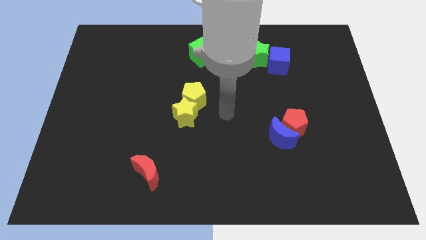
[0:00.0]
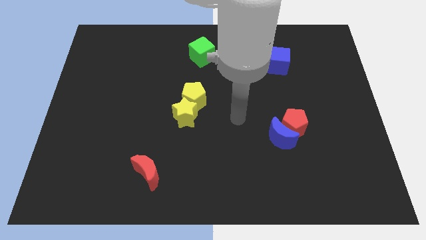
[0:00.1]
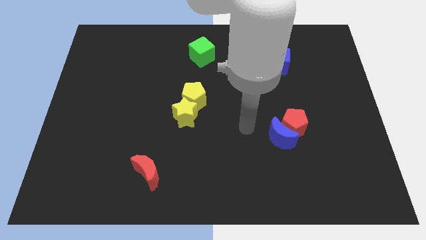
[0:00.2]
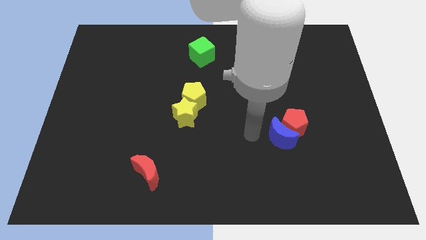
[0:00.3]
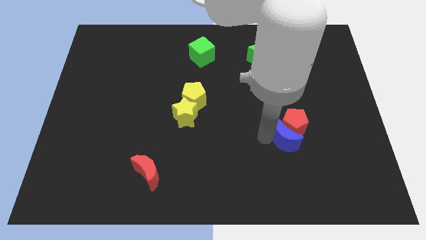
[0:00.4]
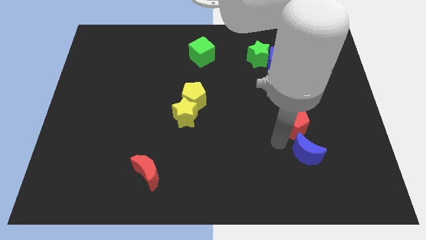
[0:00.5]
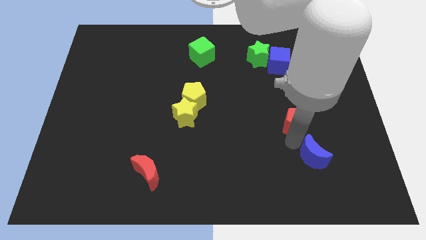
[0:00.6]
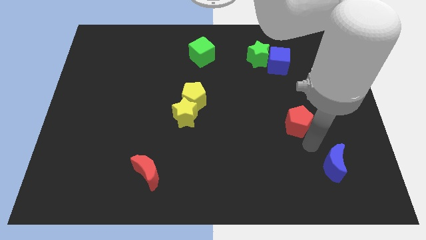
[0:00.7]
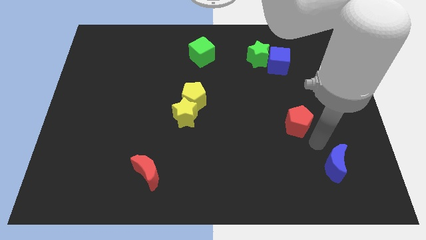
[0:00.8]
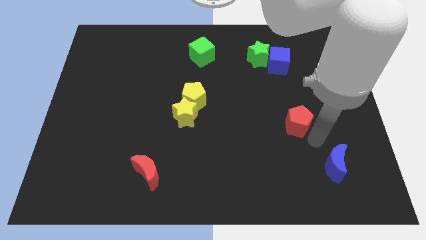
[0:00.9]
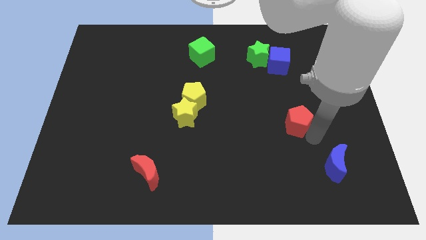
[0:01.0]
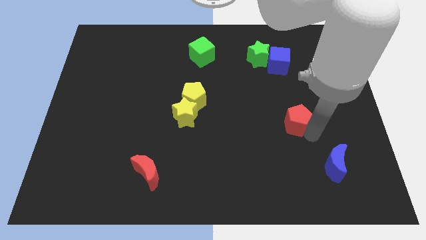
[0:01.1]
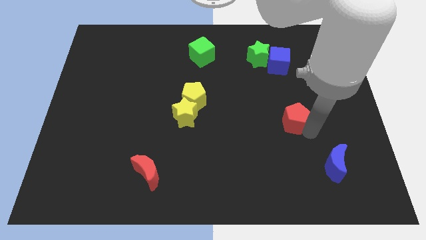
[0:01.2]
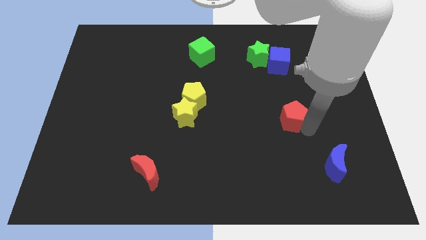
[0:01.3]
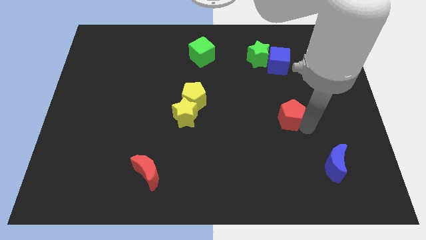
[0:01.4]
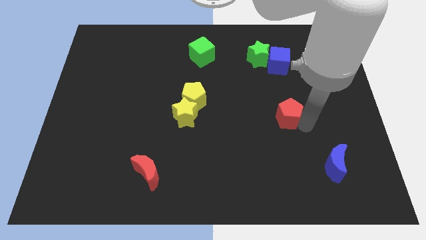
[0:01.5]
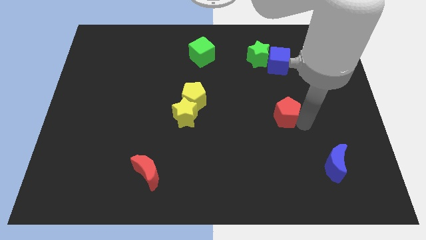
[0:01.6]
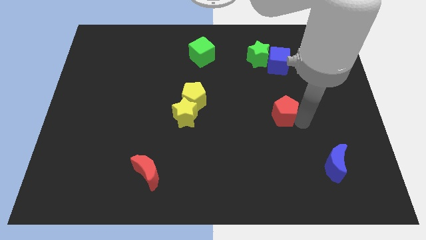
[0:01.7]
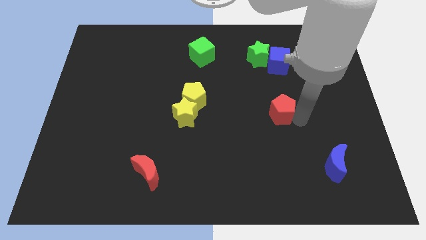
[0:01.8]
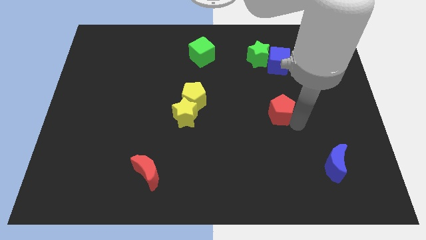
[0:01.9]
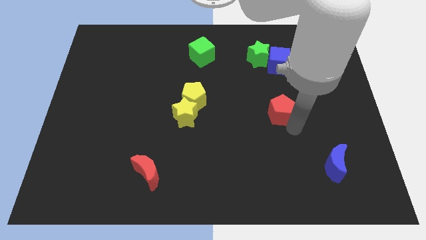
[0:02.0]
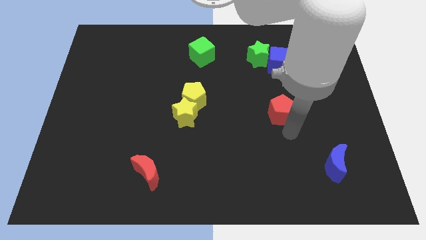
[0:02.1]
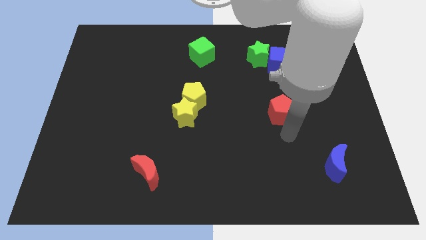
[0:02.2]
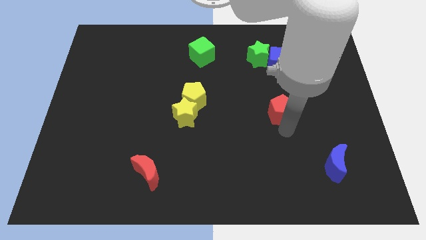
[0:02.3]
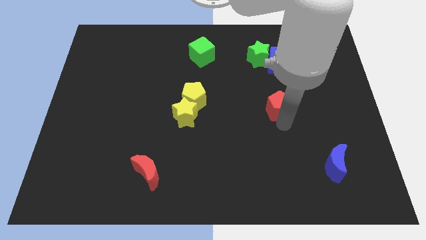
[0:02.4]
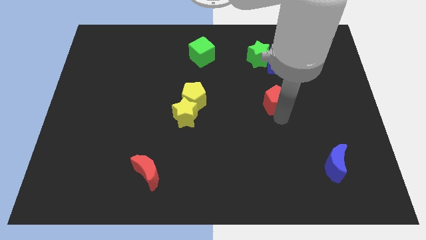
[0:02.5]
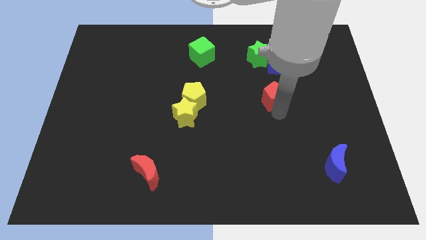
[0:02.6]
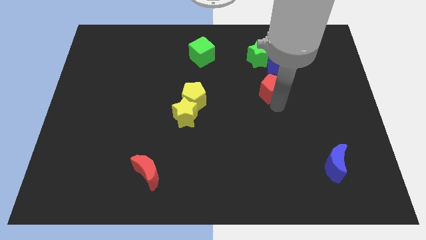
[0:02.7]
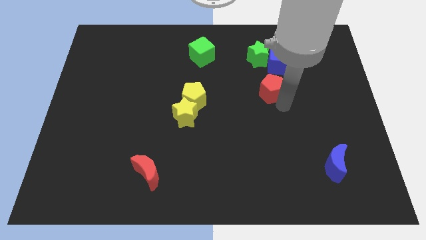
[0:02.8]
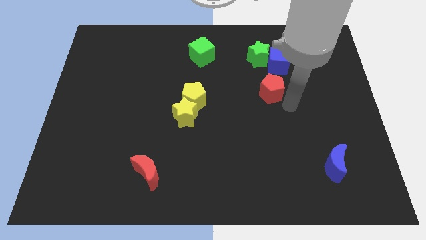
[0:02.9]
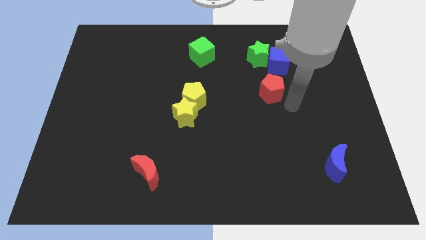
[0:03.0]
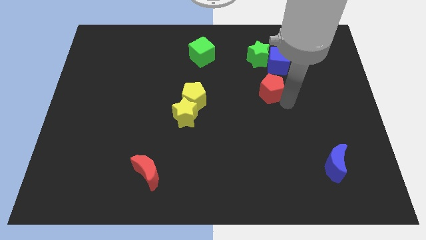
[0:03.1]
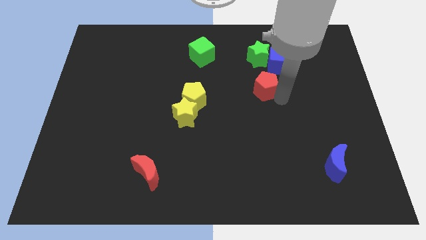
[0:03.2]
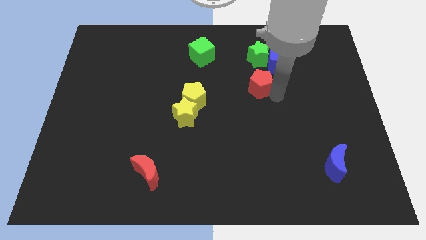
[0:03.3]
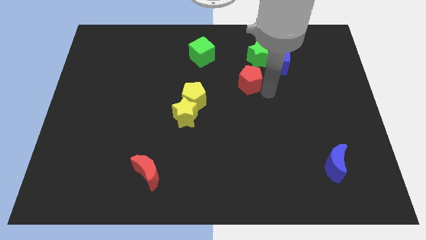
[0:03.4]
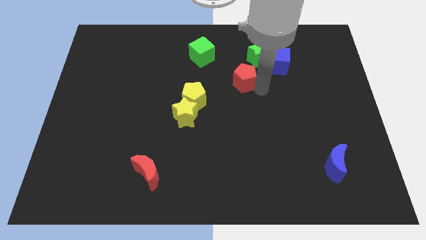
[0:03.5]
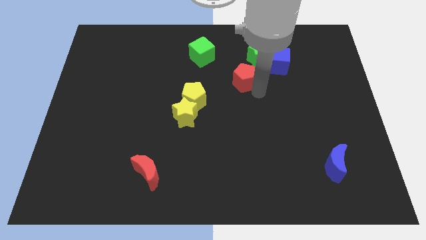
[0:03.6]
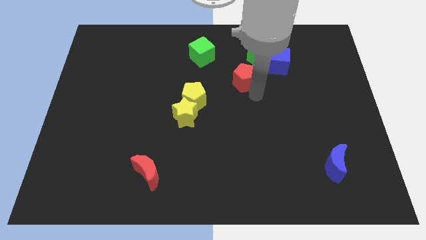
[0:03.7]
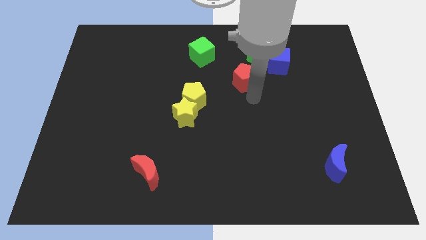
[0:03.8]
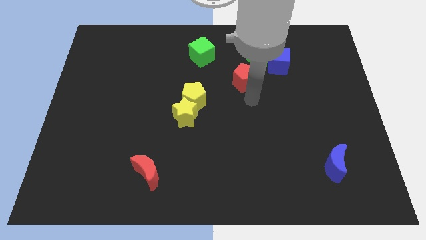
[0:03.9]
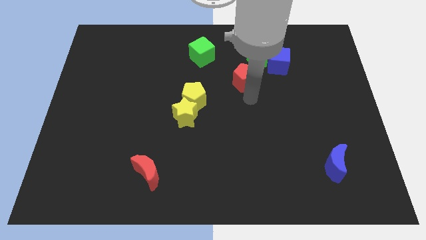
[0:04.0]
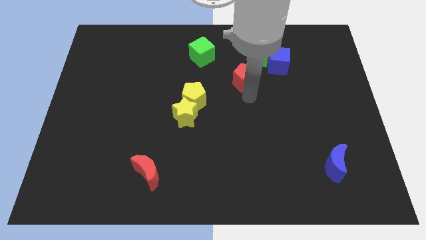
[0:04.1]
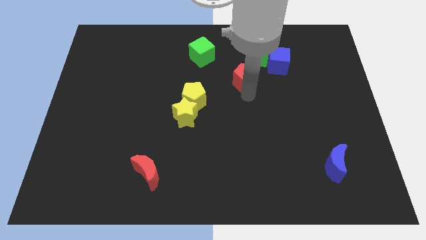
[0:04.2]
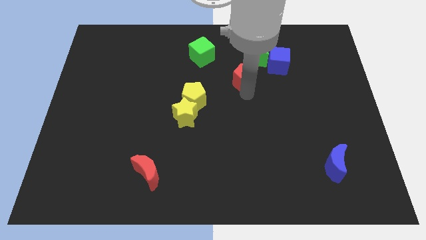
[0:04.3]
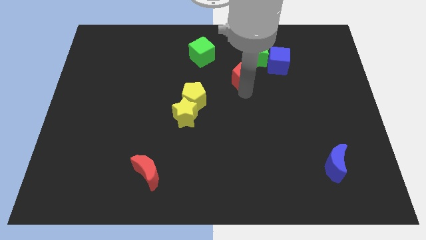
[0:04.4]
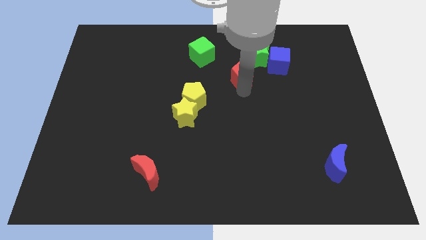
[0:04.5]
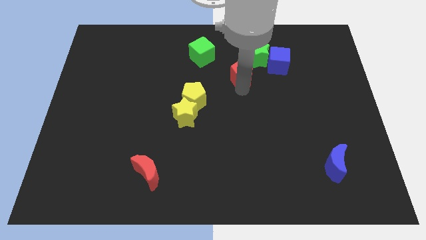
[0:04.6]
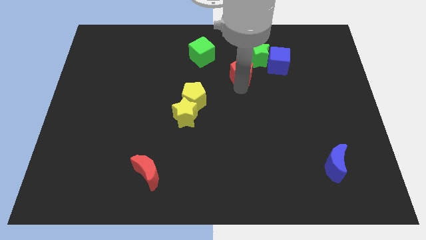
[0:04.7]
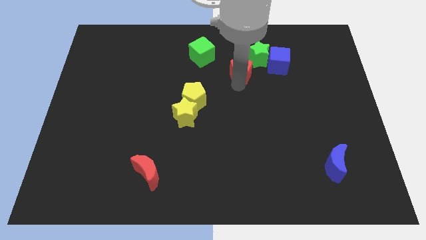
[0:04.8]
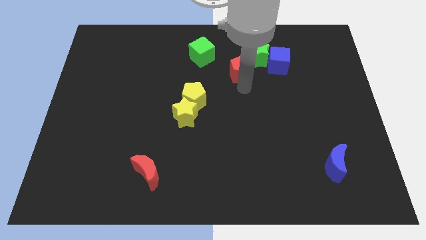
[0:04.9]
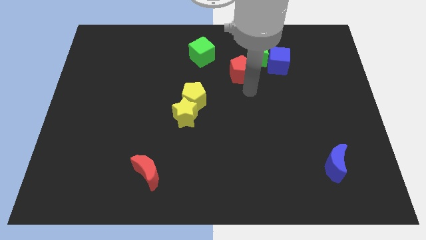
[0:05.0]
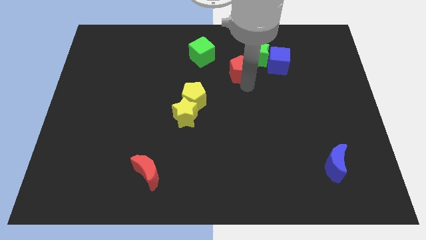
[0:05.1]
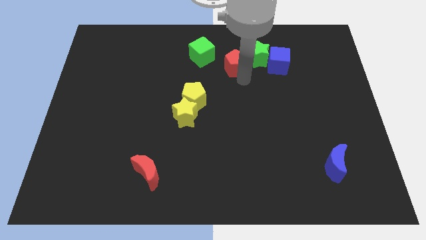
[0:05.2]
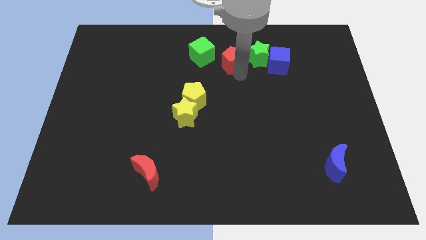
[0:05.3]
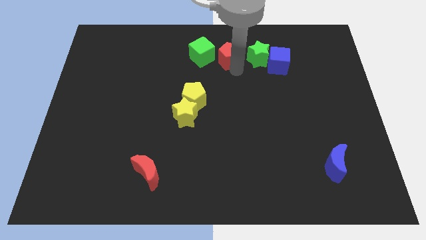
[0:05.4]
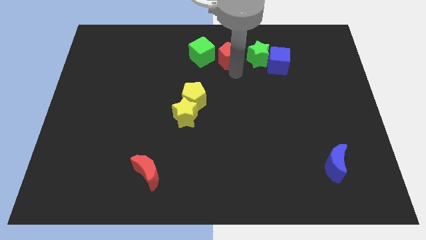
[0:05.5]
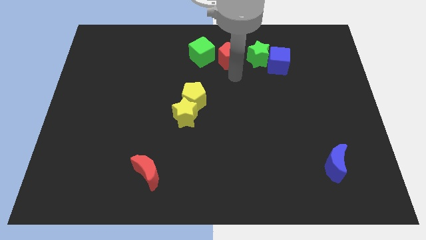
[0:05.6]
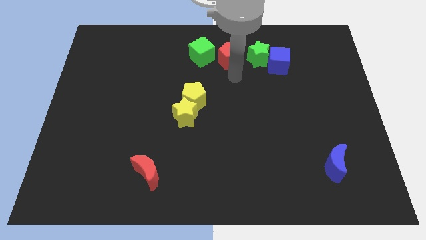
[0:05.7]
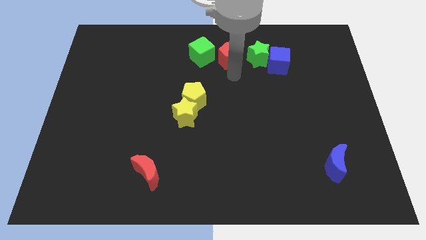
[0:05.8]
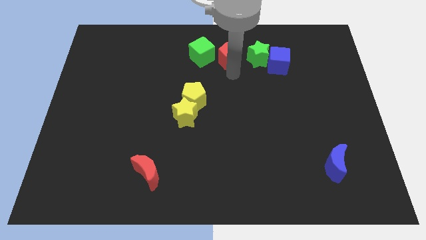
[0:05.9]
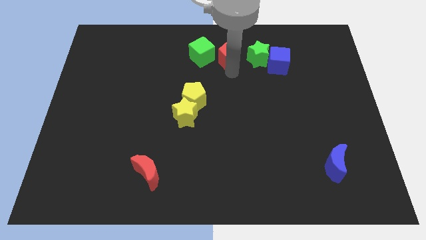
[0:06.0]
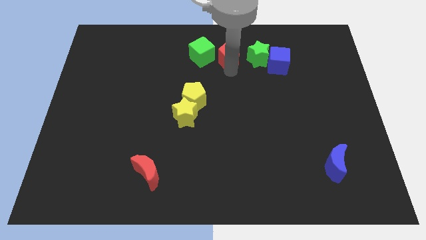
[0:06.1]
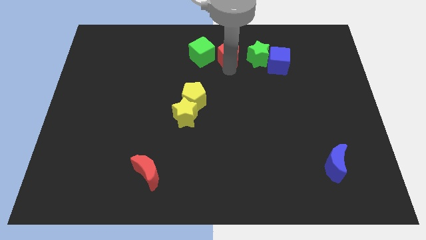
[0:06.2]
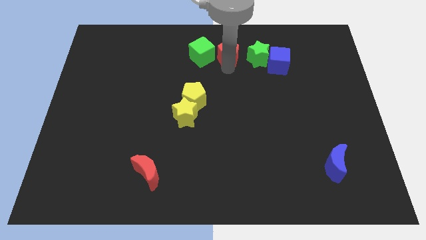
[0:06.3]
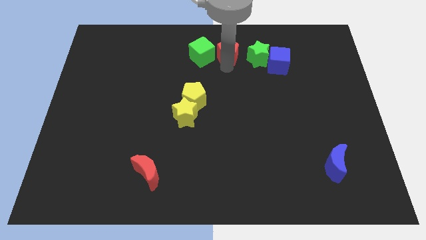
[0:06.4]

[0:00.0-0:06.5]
slide the red pentagon to the towards your base
